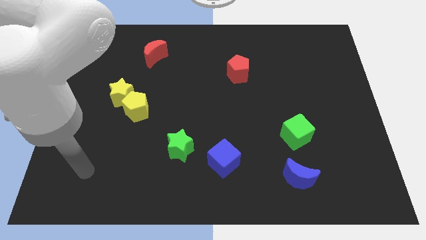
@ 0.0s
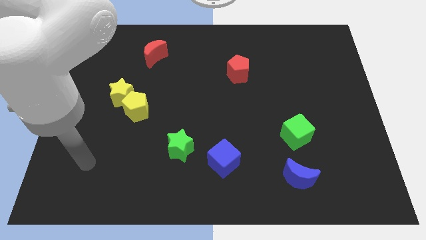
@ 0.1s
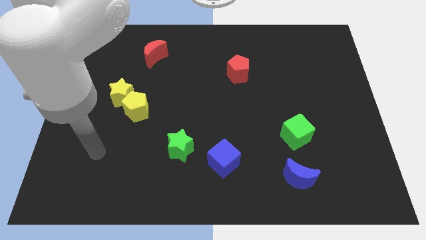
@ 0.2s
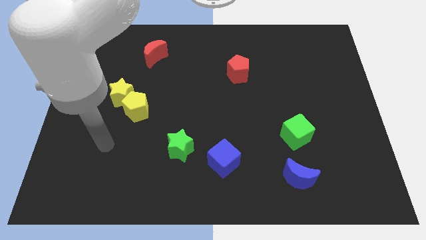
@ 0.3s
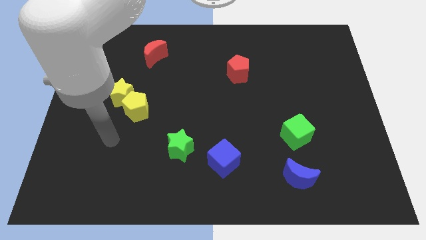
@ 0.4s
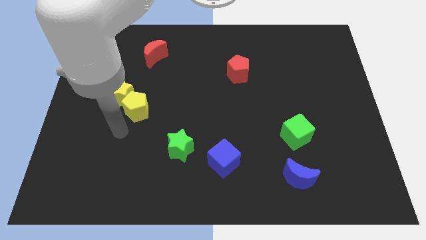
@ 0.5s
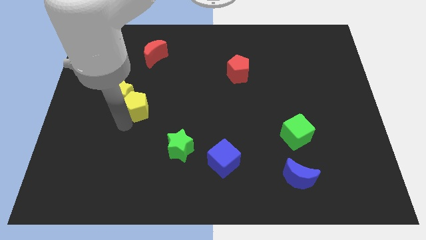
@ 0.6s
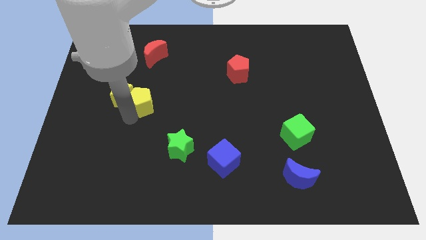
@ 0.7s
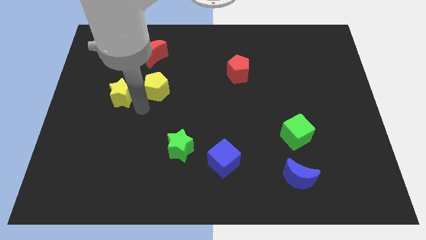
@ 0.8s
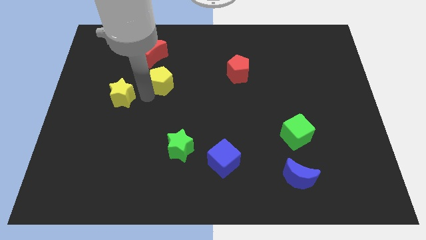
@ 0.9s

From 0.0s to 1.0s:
pull the yellow star apart from the yellow pentagon

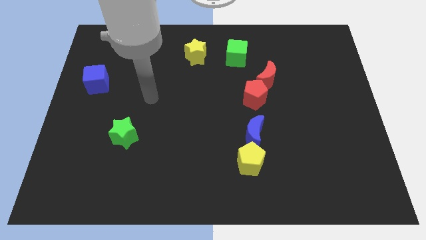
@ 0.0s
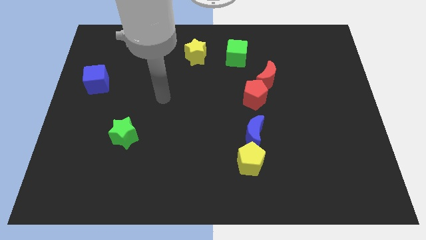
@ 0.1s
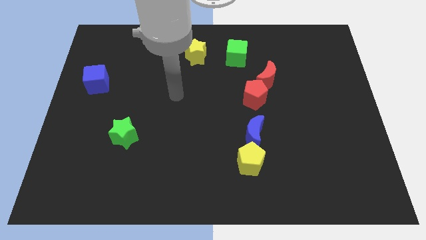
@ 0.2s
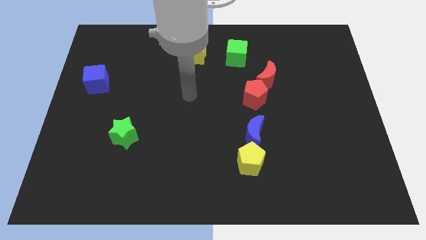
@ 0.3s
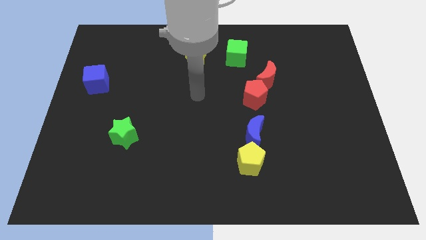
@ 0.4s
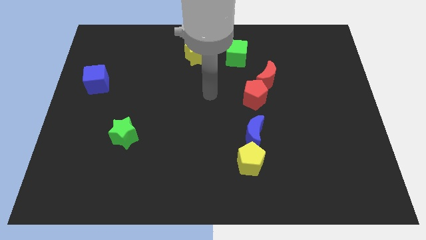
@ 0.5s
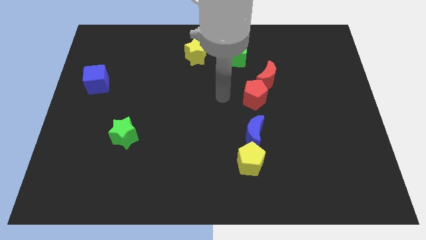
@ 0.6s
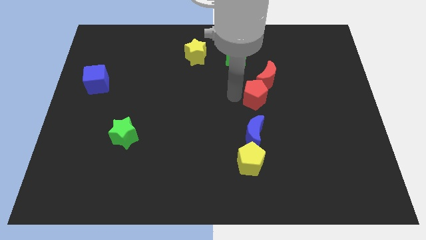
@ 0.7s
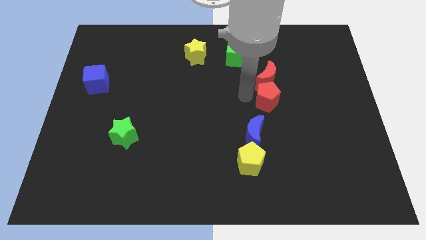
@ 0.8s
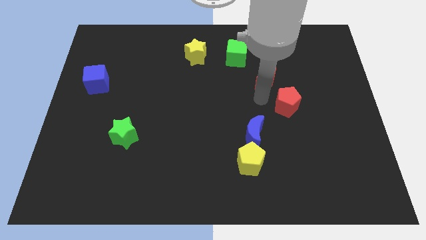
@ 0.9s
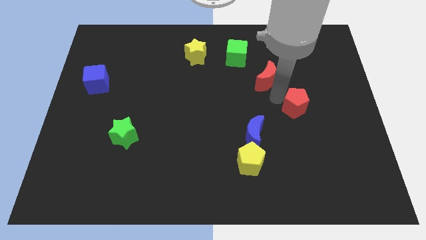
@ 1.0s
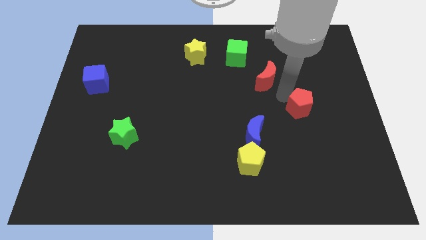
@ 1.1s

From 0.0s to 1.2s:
move the red moon away from the red pentagon

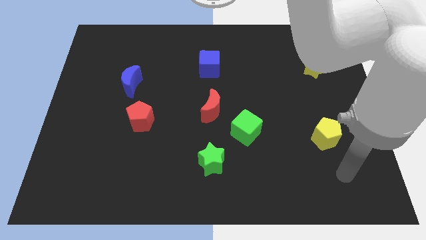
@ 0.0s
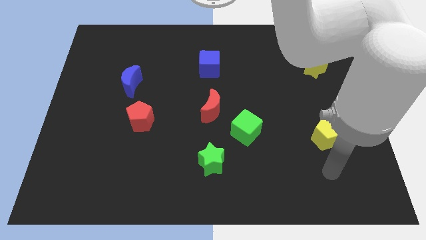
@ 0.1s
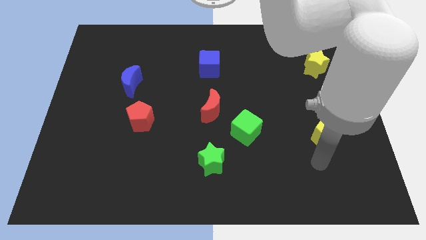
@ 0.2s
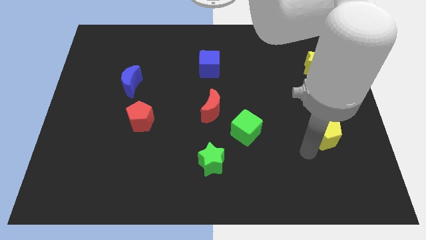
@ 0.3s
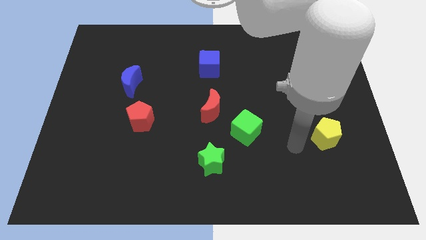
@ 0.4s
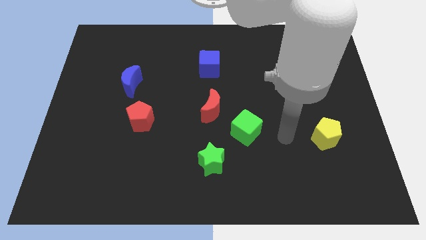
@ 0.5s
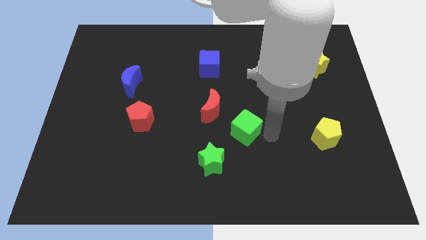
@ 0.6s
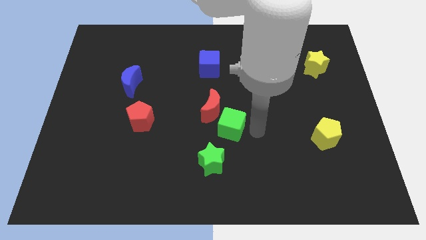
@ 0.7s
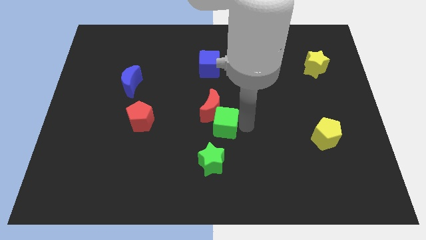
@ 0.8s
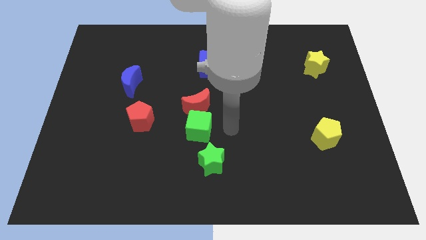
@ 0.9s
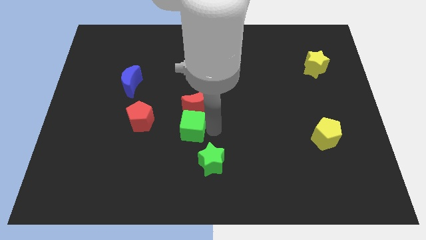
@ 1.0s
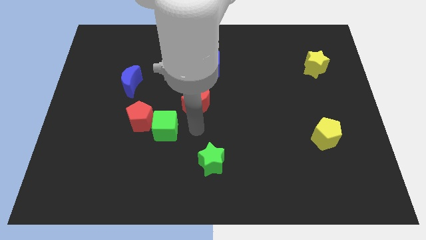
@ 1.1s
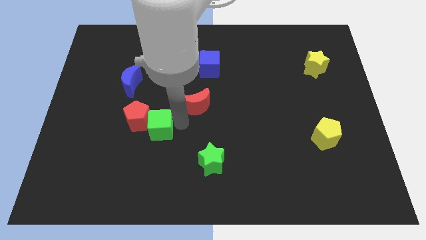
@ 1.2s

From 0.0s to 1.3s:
pull the red moon apart from the green cube

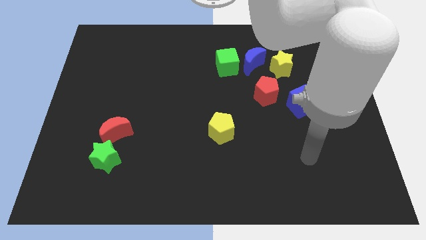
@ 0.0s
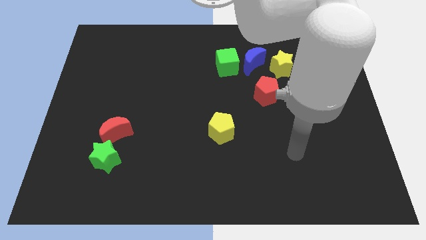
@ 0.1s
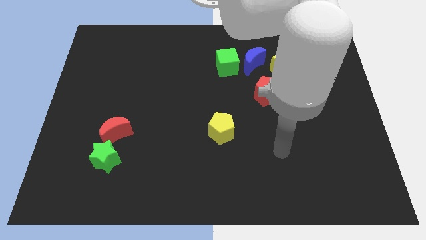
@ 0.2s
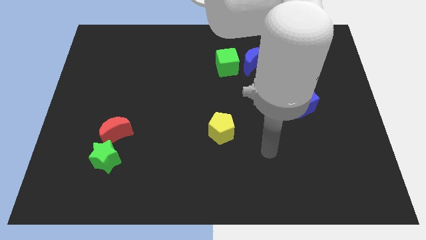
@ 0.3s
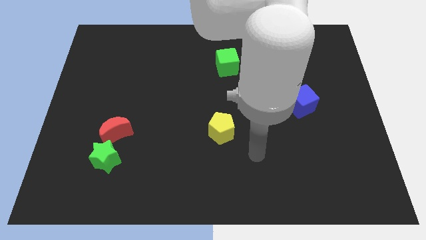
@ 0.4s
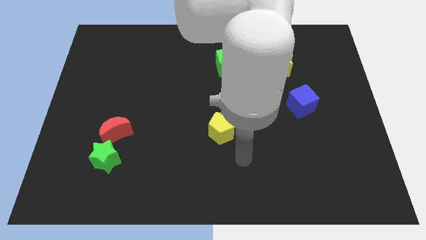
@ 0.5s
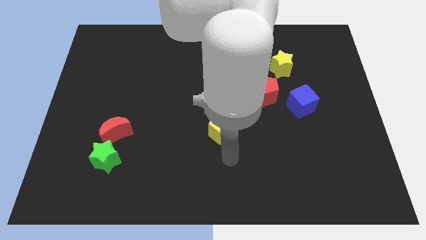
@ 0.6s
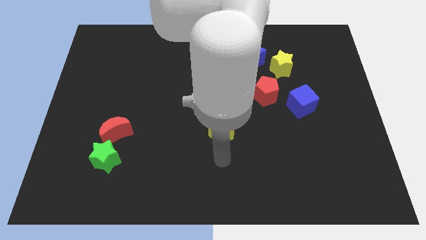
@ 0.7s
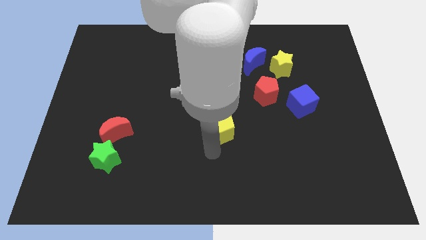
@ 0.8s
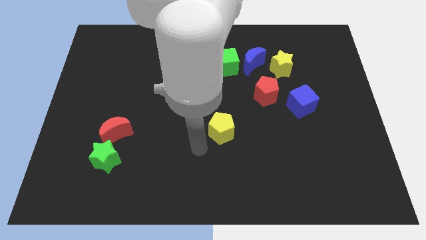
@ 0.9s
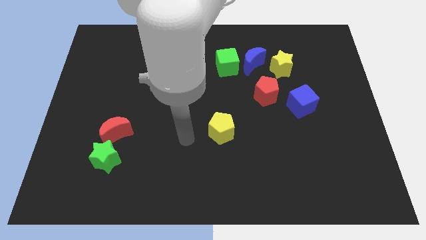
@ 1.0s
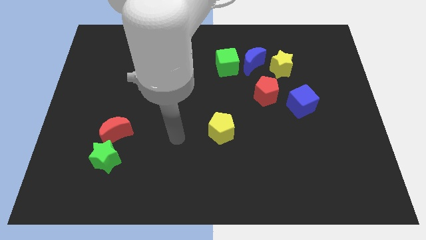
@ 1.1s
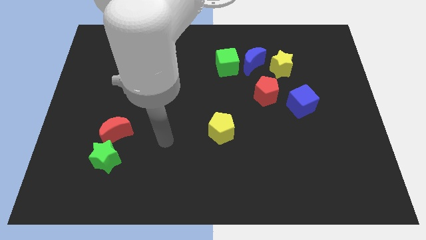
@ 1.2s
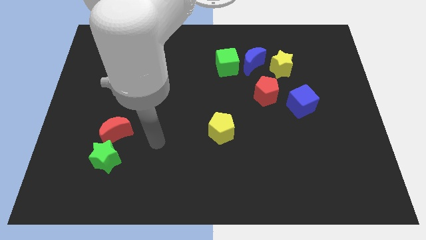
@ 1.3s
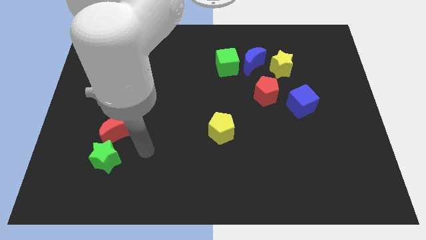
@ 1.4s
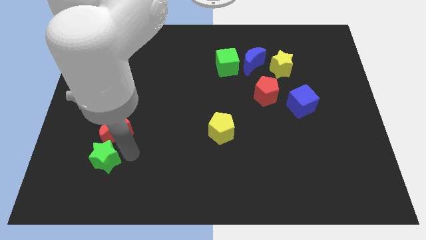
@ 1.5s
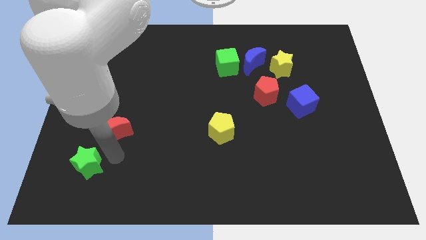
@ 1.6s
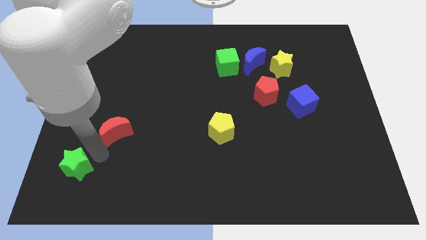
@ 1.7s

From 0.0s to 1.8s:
move the red moon away from the green star

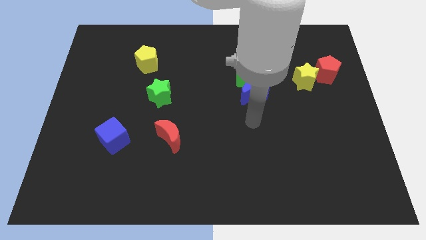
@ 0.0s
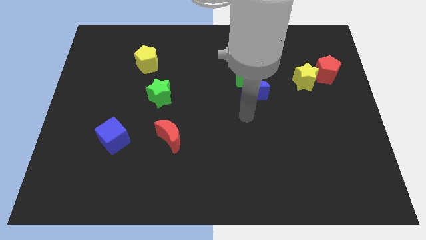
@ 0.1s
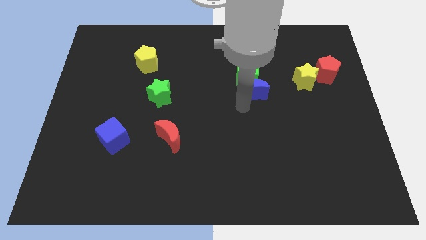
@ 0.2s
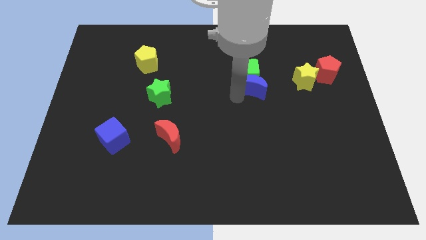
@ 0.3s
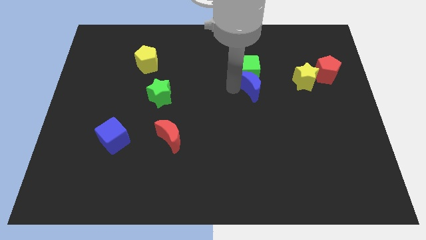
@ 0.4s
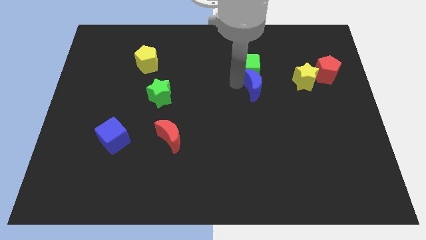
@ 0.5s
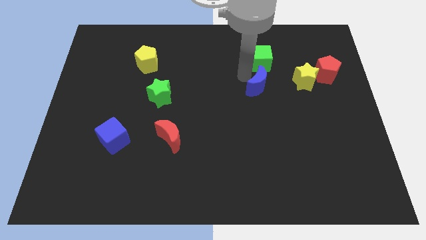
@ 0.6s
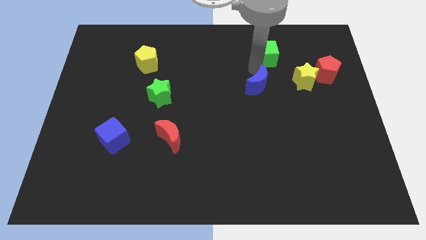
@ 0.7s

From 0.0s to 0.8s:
separate the blue moon from the green cube

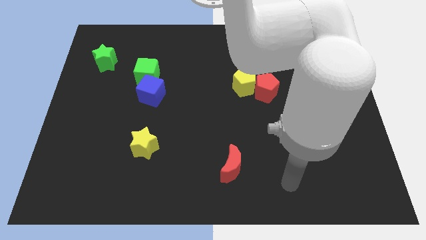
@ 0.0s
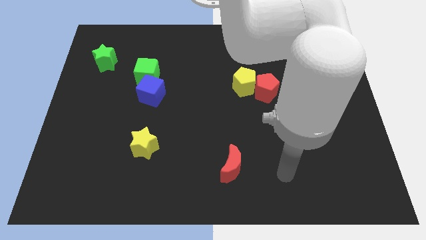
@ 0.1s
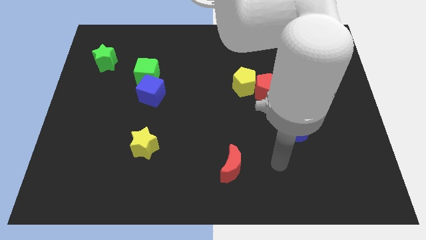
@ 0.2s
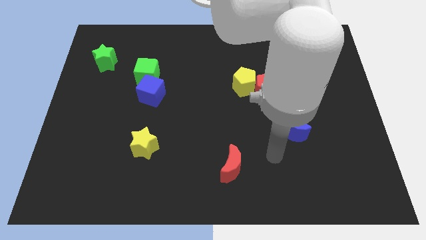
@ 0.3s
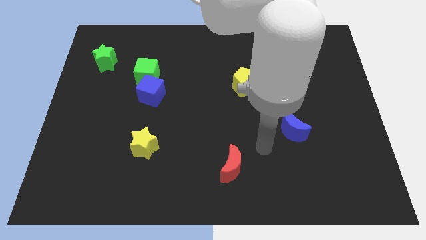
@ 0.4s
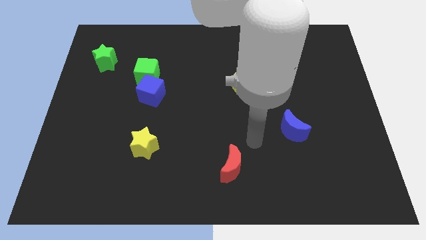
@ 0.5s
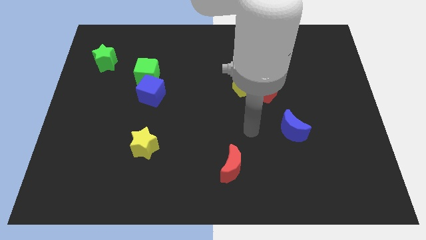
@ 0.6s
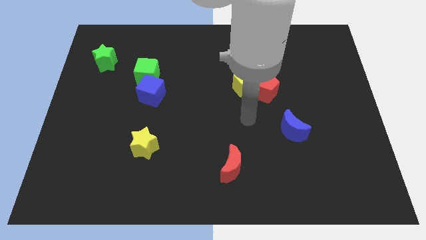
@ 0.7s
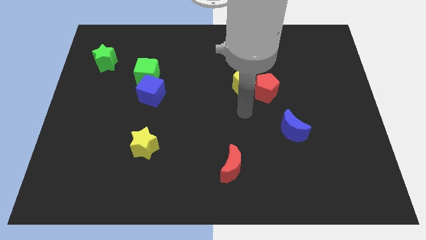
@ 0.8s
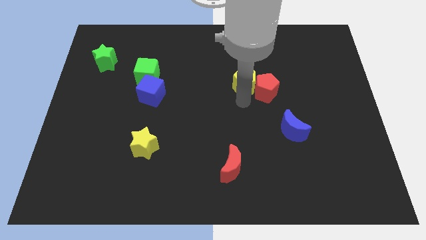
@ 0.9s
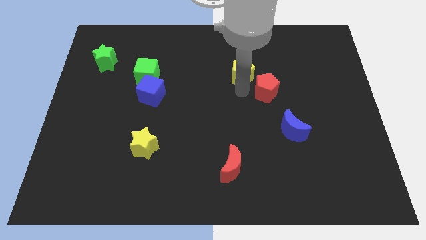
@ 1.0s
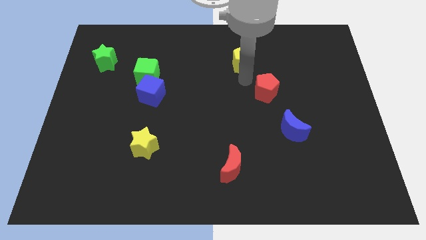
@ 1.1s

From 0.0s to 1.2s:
separate the red pentagon from the yellow pentagon

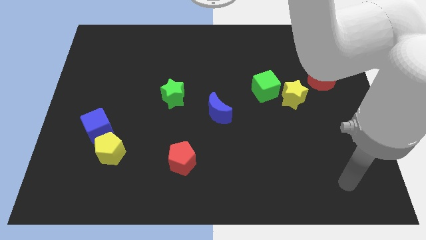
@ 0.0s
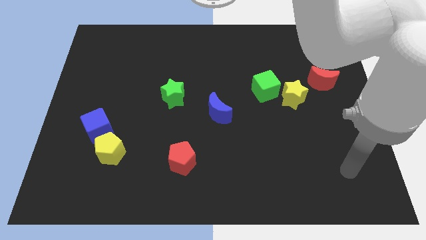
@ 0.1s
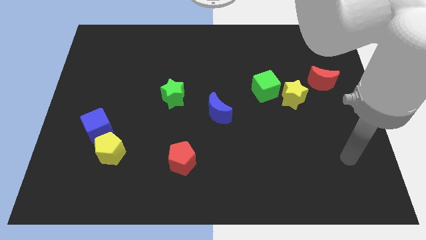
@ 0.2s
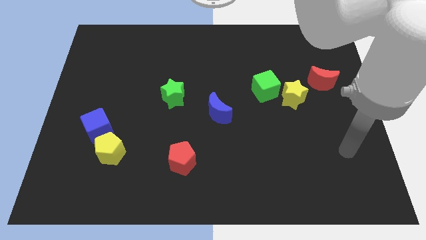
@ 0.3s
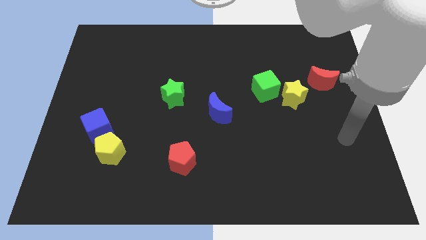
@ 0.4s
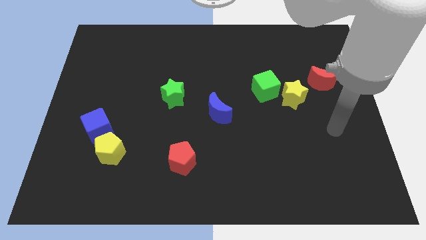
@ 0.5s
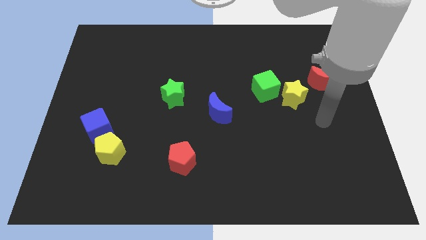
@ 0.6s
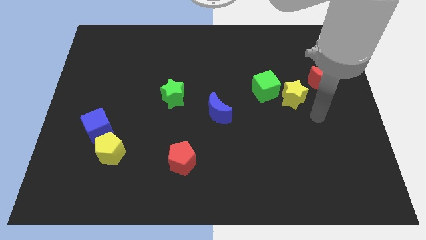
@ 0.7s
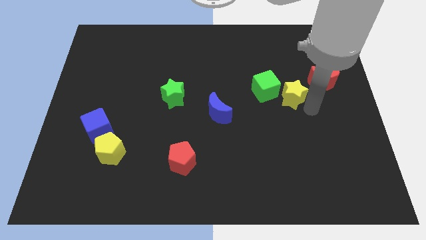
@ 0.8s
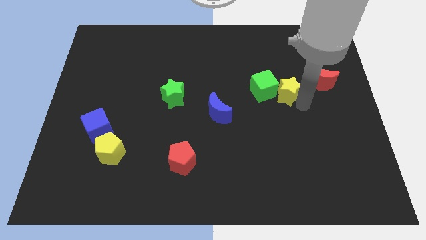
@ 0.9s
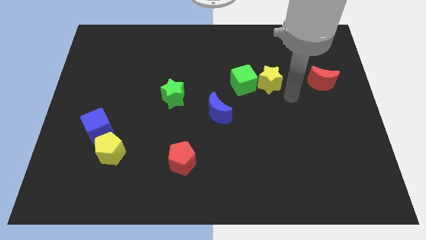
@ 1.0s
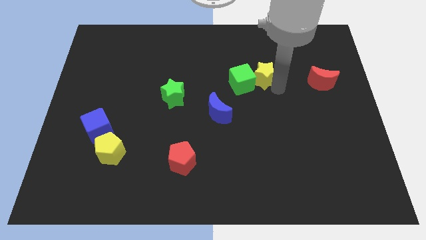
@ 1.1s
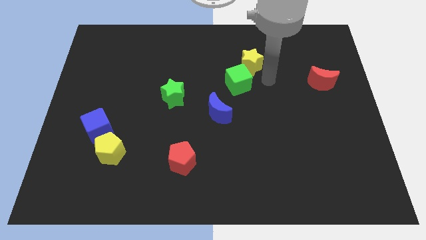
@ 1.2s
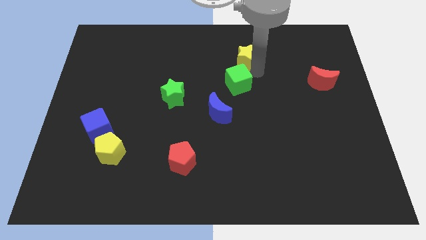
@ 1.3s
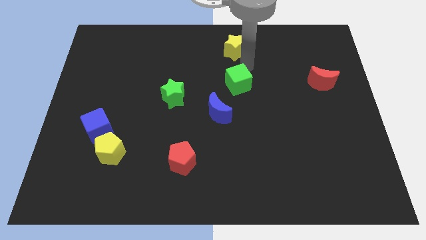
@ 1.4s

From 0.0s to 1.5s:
separate the green cube from the yellow star

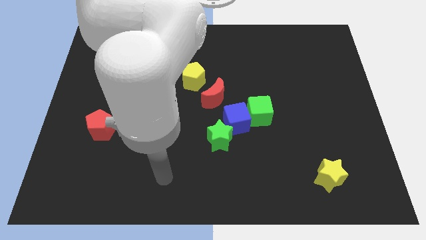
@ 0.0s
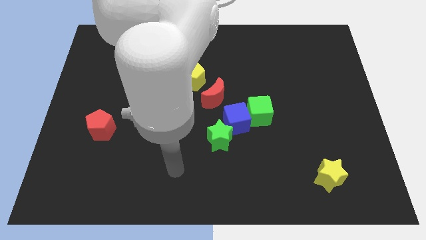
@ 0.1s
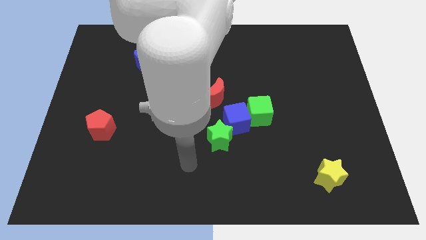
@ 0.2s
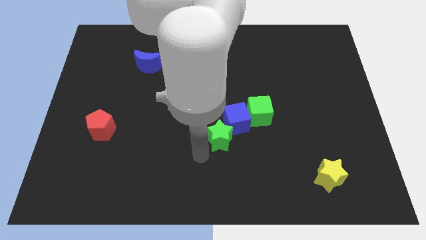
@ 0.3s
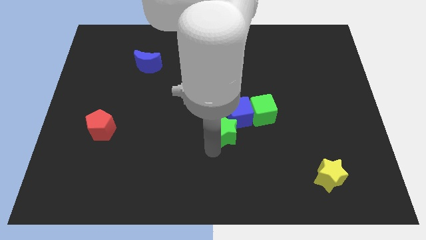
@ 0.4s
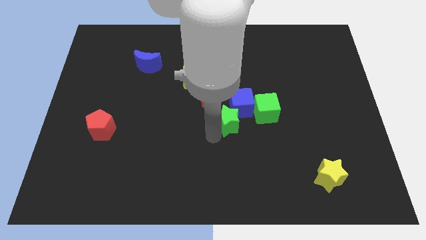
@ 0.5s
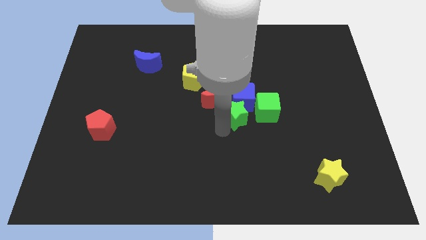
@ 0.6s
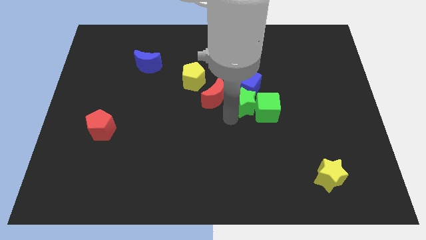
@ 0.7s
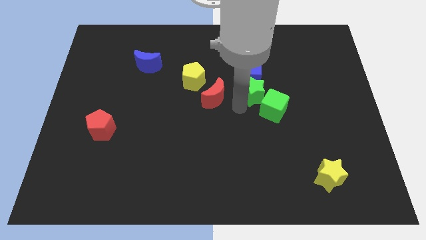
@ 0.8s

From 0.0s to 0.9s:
separate the green cube from the blue cube
